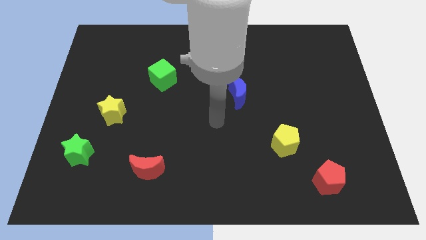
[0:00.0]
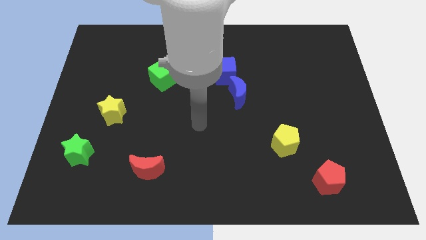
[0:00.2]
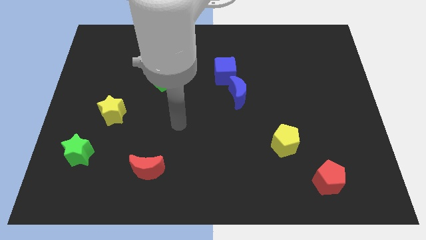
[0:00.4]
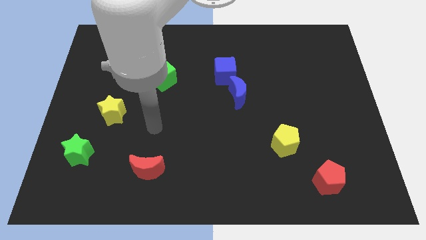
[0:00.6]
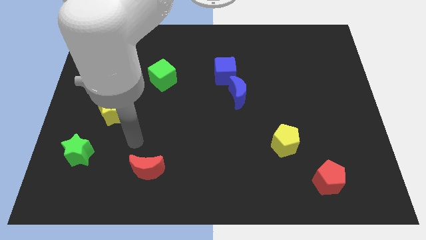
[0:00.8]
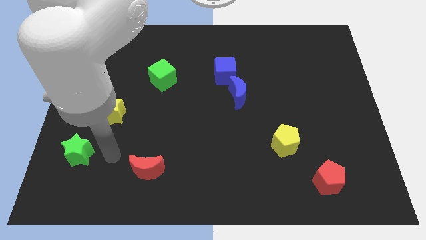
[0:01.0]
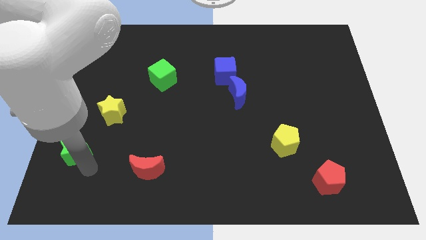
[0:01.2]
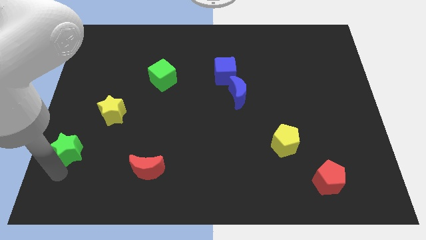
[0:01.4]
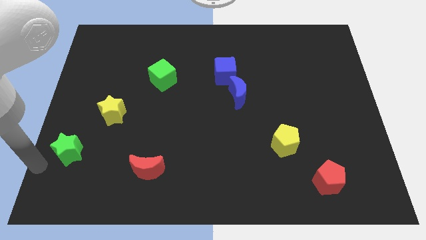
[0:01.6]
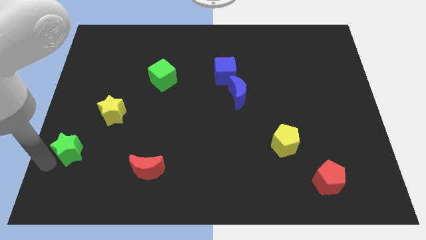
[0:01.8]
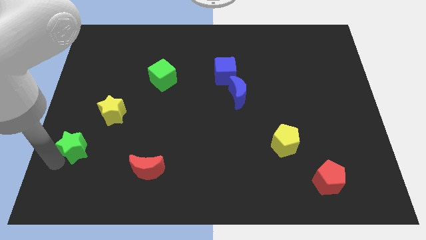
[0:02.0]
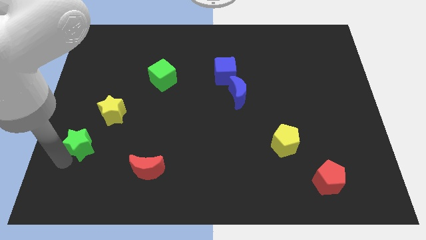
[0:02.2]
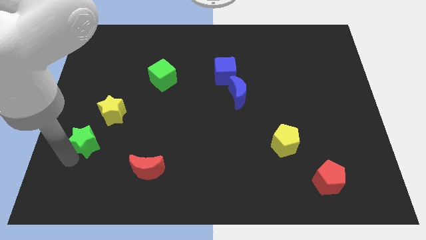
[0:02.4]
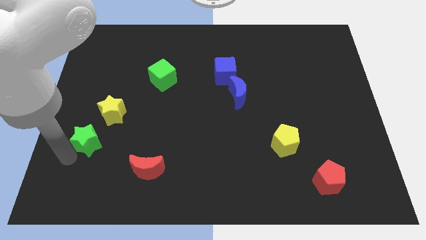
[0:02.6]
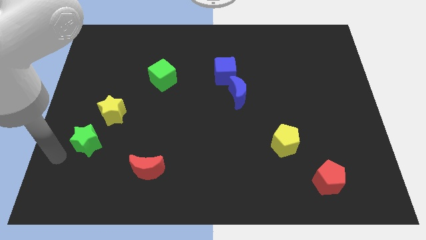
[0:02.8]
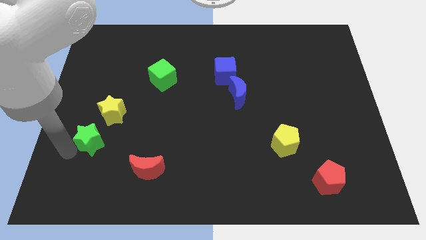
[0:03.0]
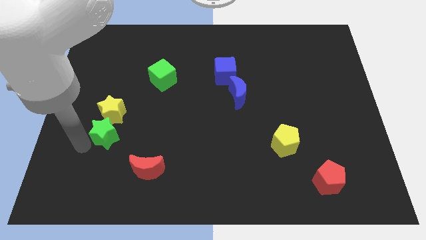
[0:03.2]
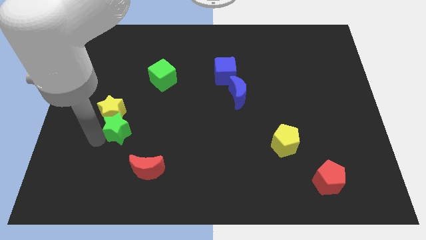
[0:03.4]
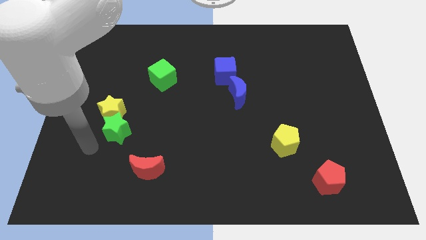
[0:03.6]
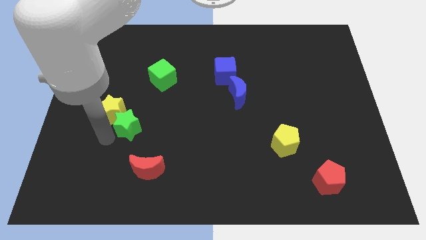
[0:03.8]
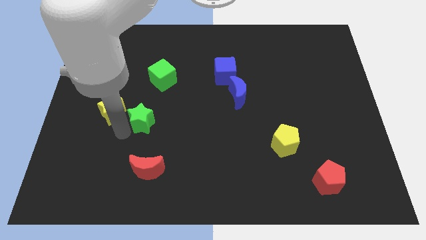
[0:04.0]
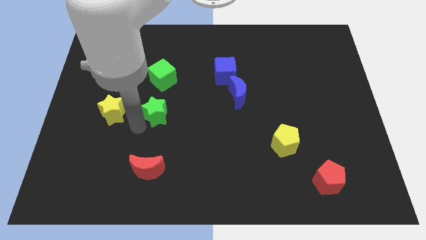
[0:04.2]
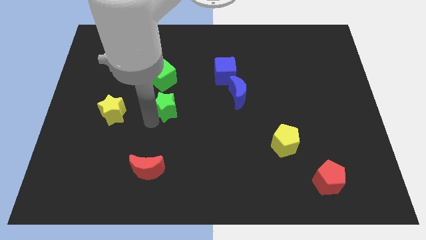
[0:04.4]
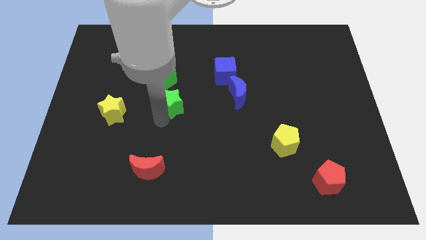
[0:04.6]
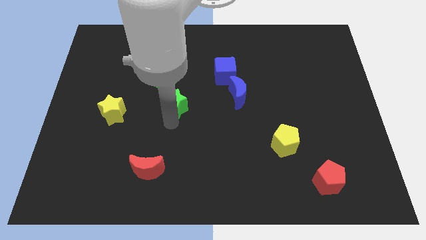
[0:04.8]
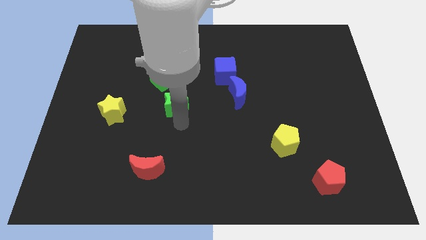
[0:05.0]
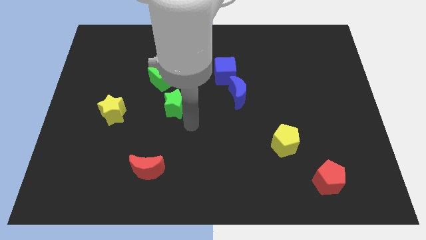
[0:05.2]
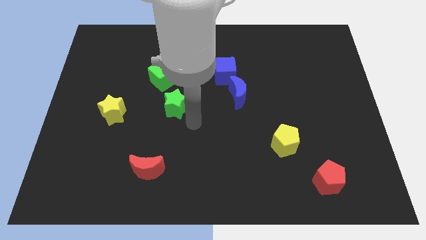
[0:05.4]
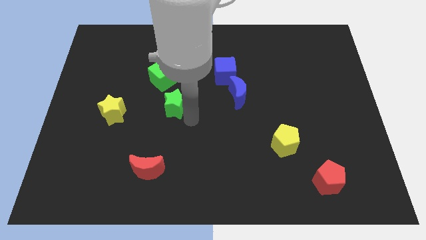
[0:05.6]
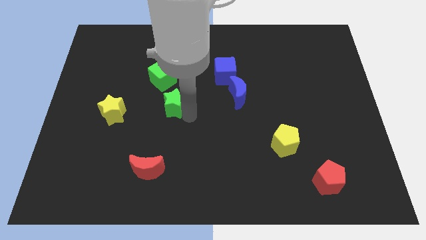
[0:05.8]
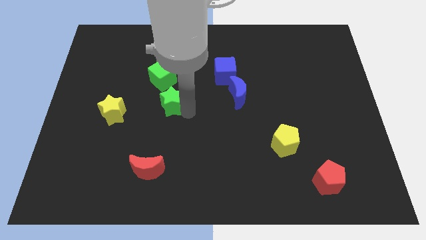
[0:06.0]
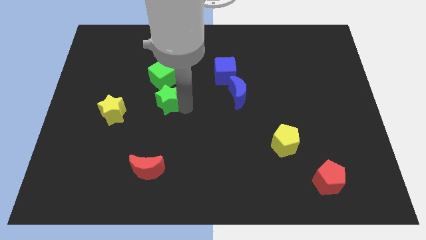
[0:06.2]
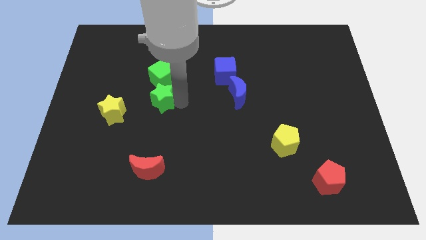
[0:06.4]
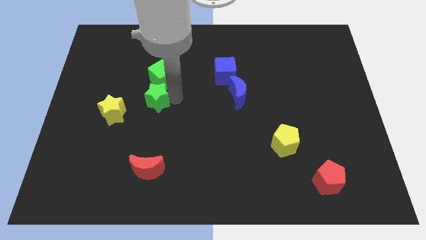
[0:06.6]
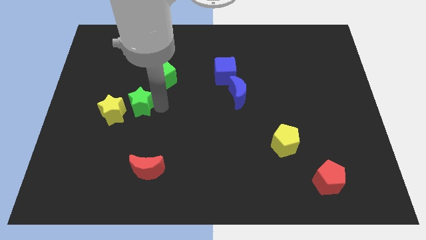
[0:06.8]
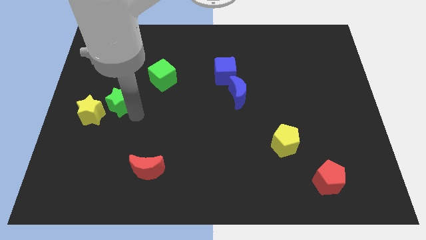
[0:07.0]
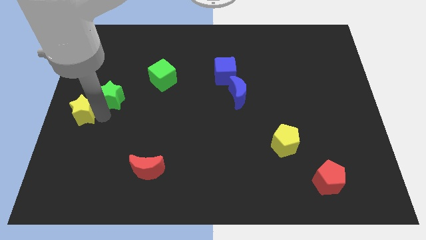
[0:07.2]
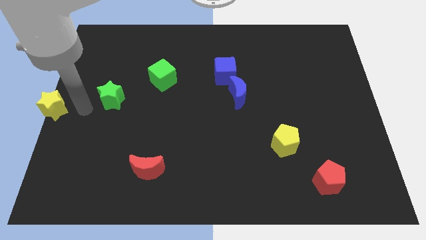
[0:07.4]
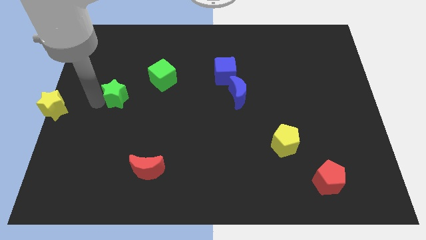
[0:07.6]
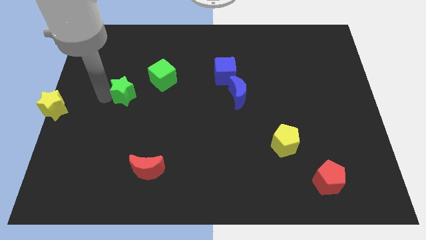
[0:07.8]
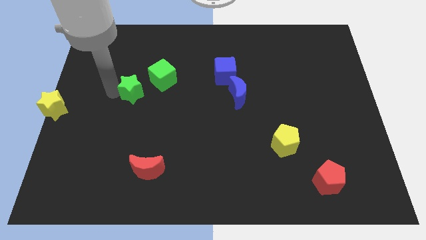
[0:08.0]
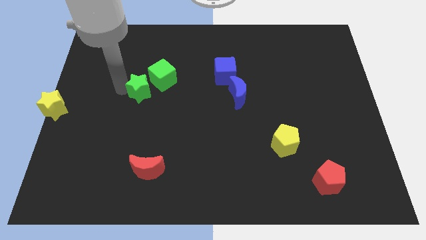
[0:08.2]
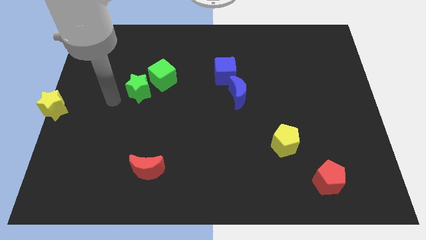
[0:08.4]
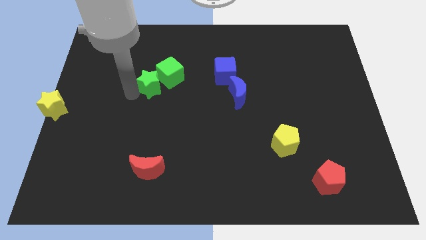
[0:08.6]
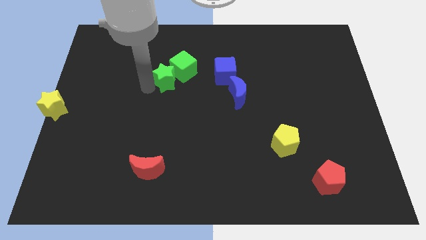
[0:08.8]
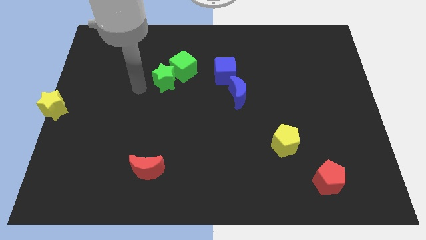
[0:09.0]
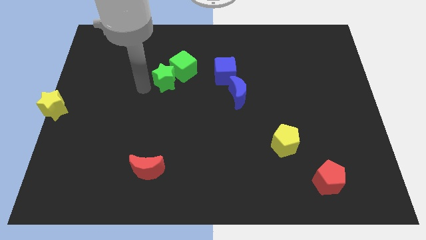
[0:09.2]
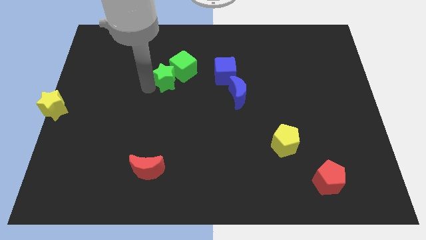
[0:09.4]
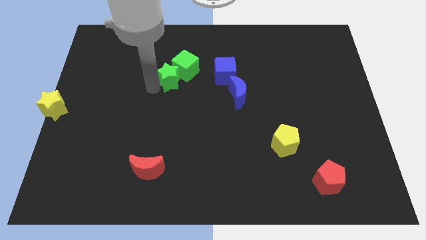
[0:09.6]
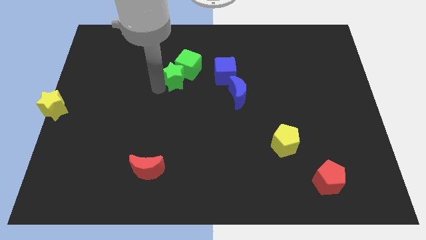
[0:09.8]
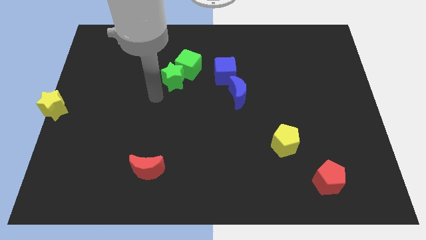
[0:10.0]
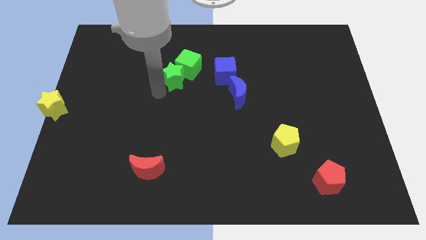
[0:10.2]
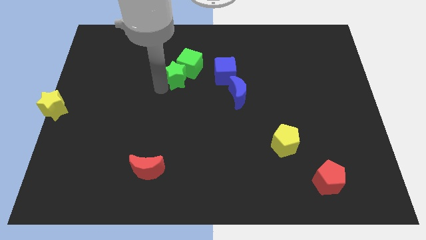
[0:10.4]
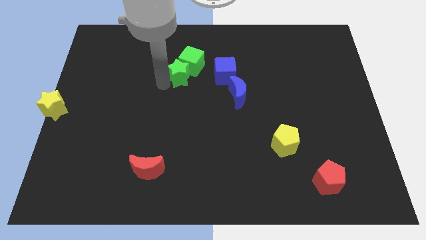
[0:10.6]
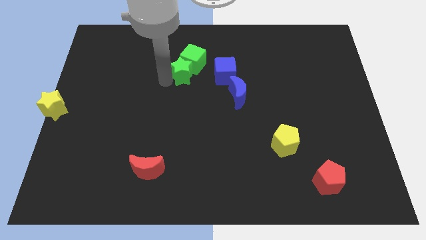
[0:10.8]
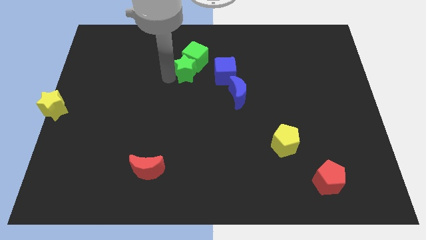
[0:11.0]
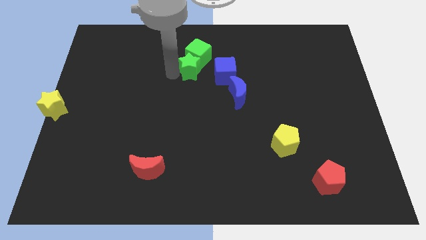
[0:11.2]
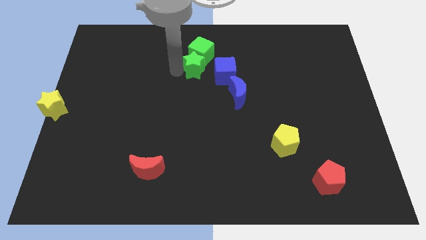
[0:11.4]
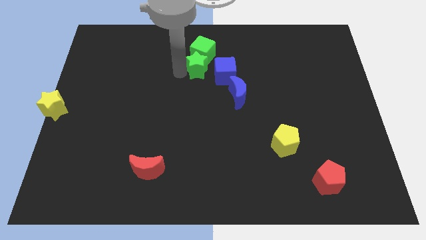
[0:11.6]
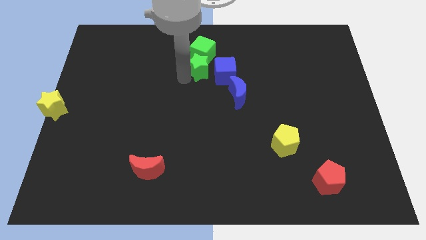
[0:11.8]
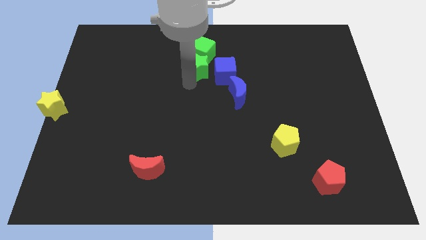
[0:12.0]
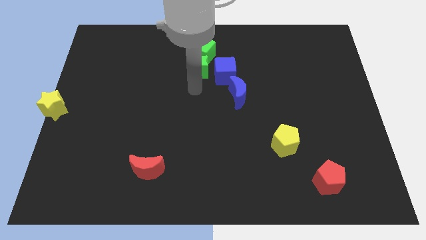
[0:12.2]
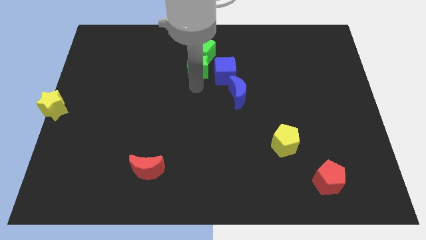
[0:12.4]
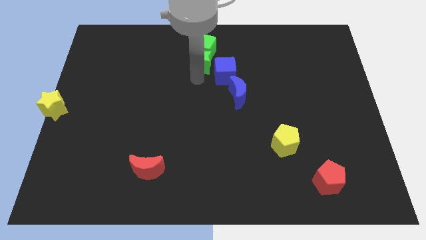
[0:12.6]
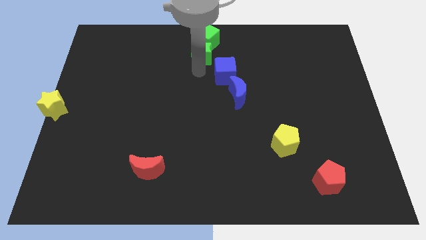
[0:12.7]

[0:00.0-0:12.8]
push the green star to the top

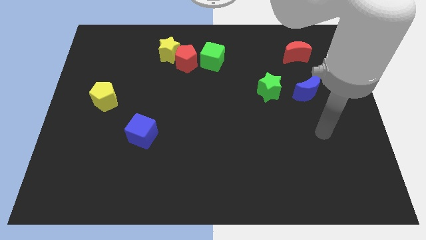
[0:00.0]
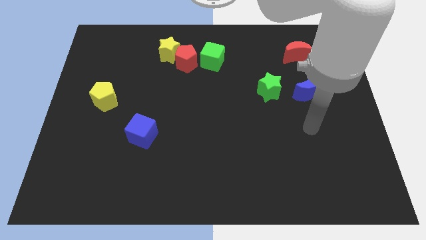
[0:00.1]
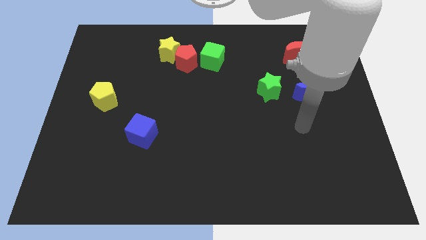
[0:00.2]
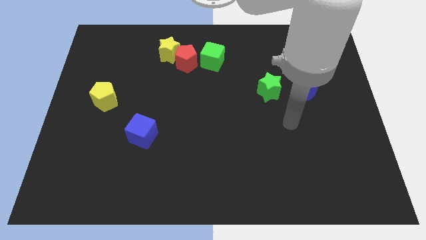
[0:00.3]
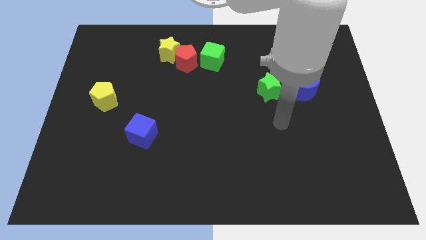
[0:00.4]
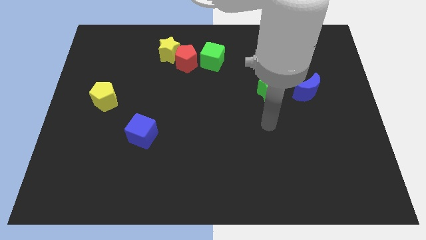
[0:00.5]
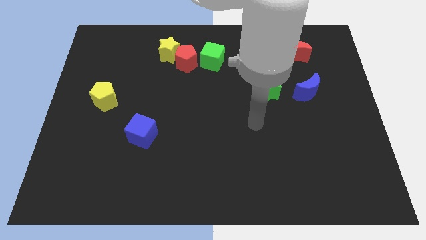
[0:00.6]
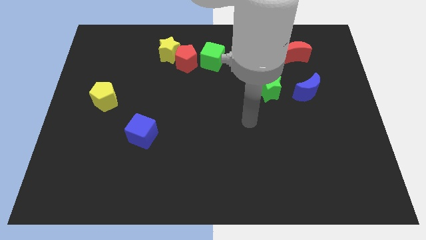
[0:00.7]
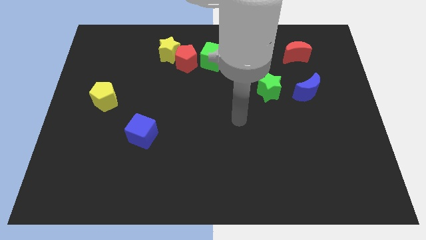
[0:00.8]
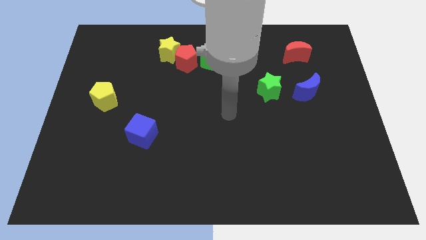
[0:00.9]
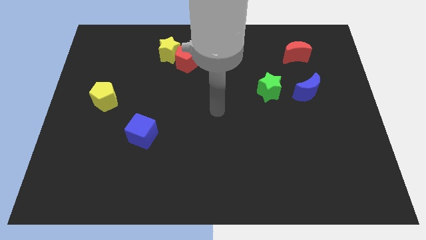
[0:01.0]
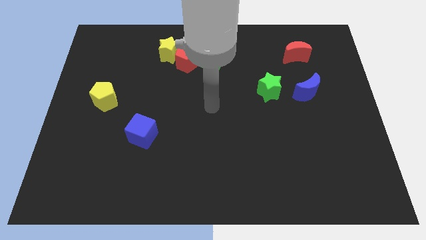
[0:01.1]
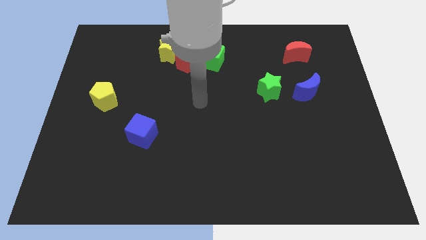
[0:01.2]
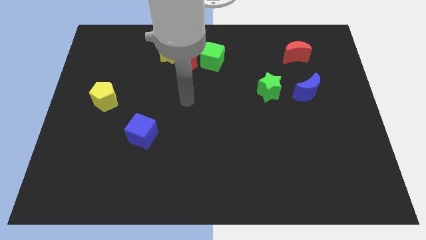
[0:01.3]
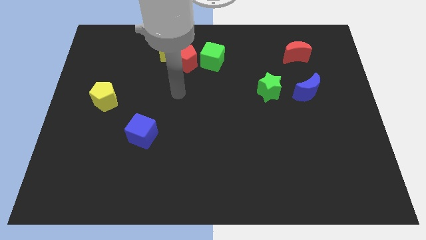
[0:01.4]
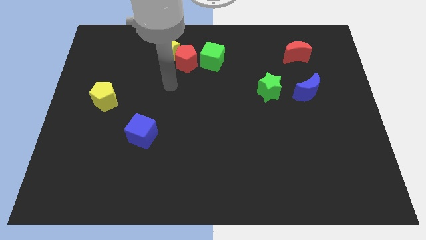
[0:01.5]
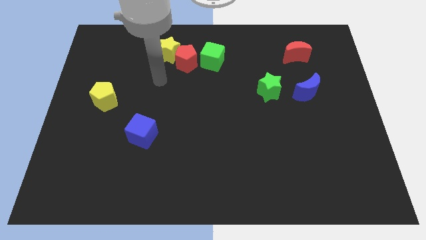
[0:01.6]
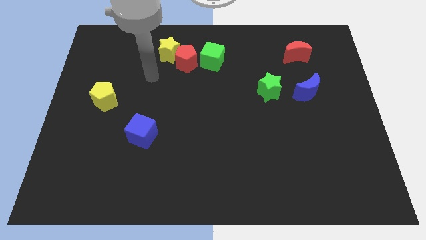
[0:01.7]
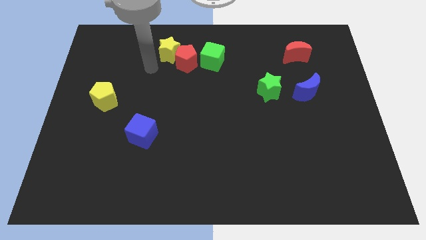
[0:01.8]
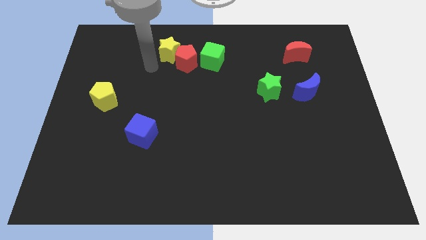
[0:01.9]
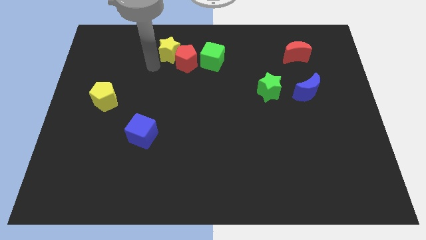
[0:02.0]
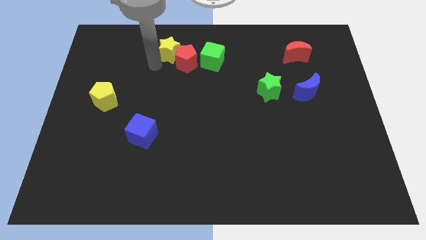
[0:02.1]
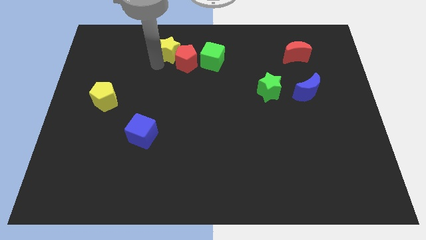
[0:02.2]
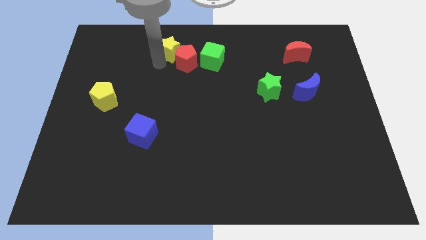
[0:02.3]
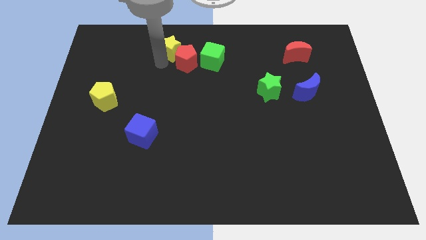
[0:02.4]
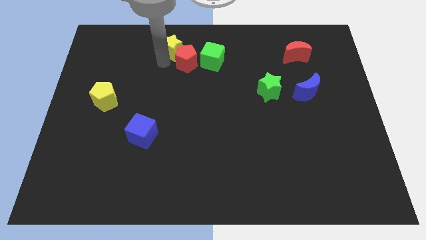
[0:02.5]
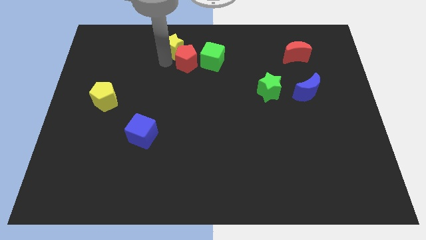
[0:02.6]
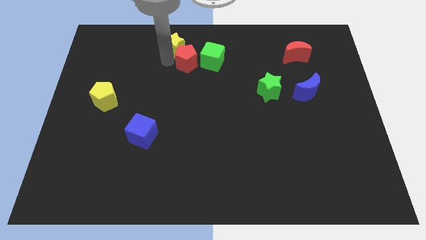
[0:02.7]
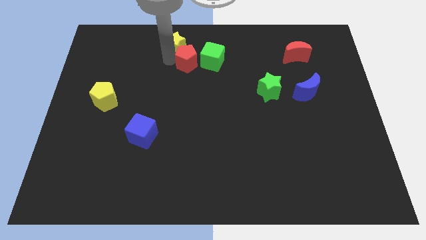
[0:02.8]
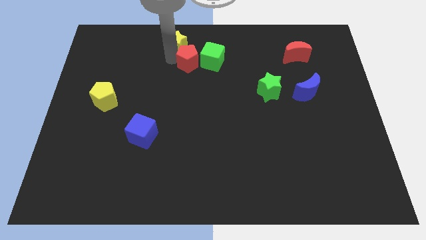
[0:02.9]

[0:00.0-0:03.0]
slide the yellow star to the top side
